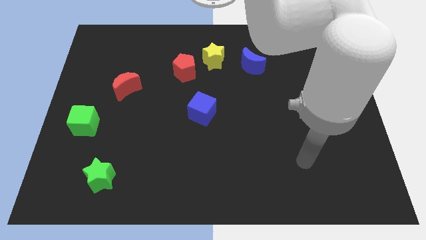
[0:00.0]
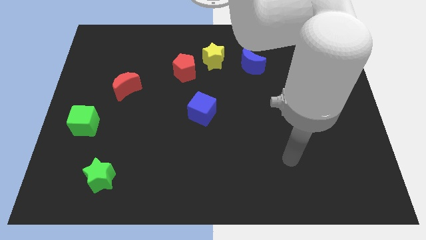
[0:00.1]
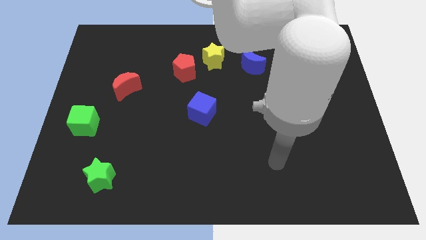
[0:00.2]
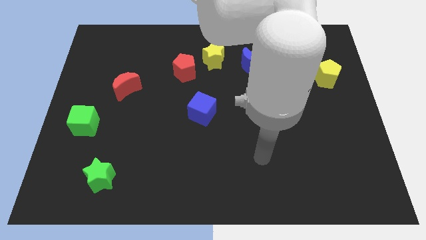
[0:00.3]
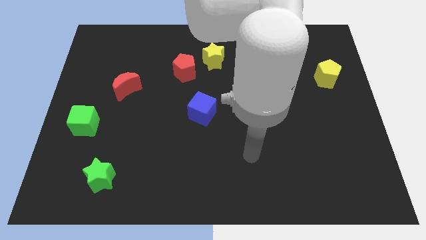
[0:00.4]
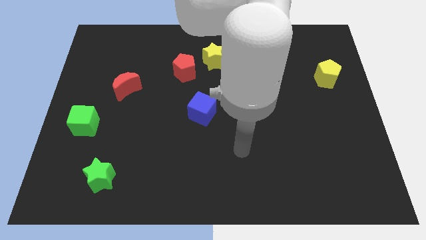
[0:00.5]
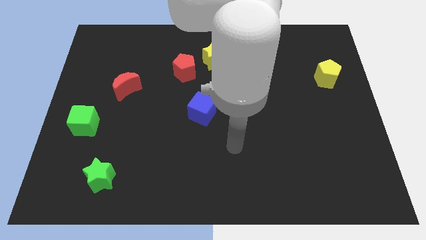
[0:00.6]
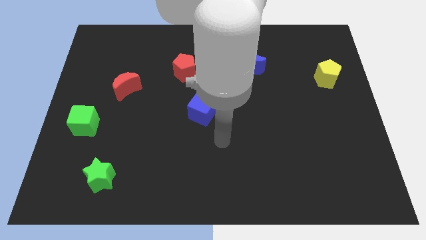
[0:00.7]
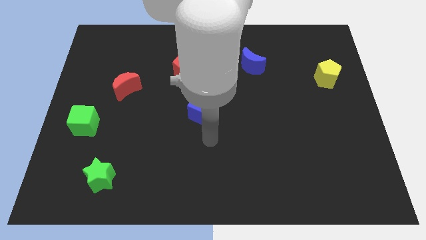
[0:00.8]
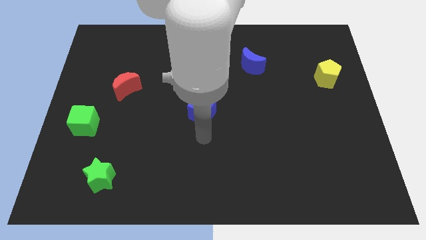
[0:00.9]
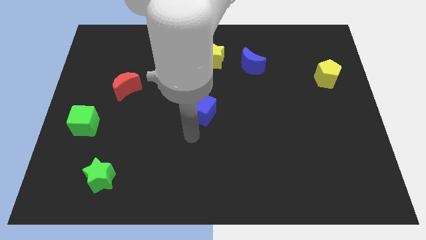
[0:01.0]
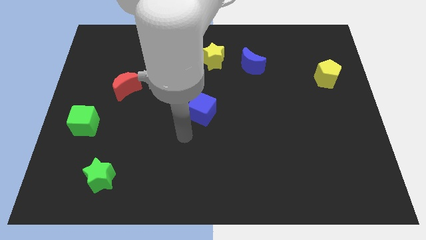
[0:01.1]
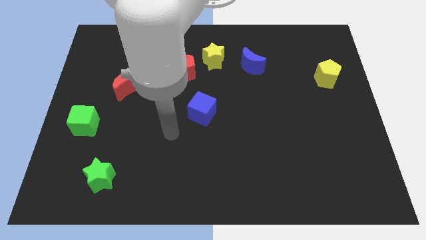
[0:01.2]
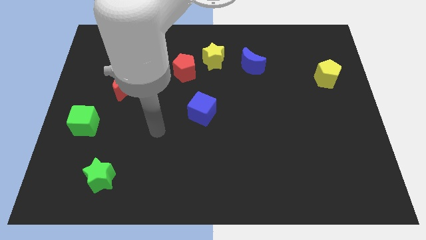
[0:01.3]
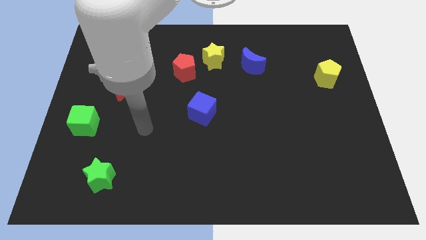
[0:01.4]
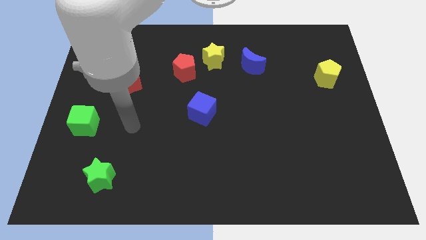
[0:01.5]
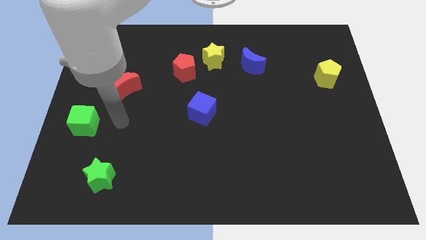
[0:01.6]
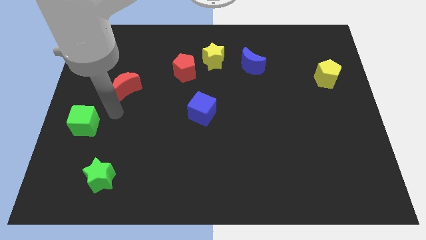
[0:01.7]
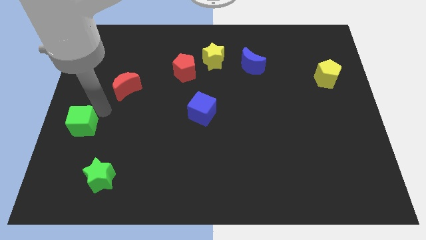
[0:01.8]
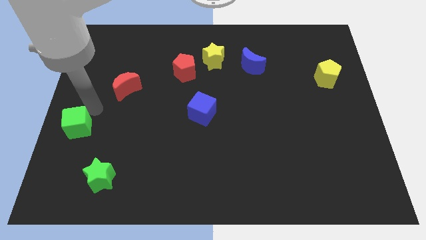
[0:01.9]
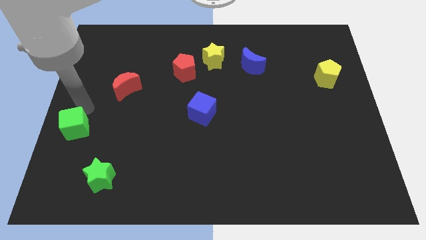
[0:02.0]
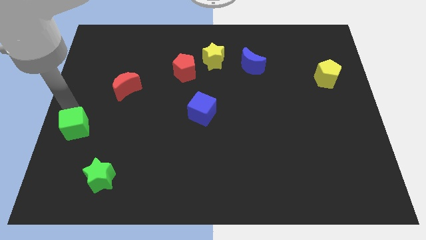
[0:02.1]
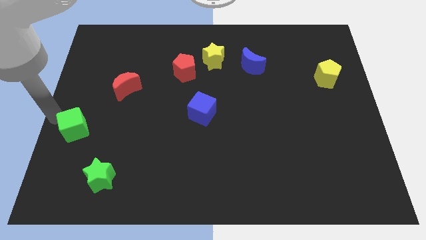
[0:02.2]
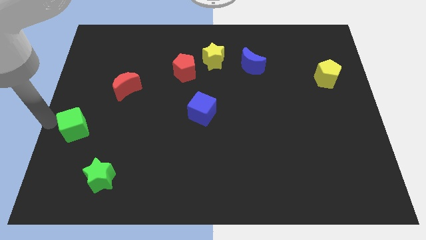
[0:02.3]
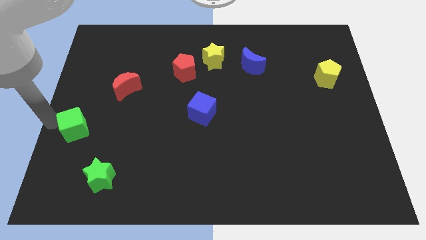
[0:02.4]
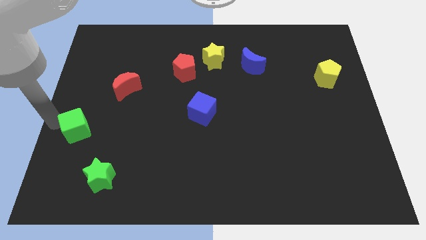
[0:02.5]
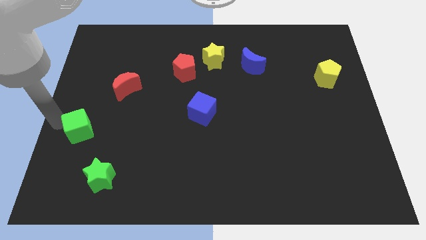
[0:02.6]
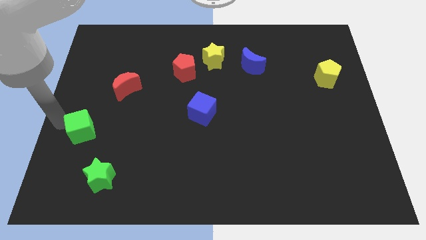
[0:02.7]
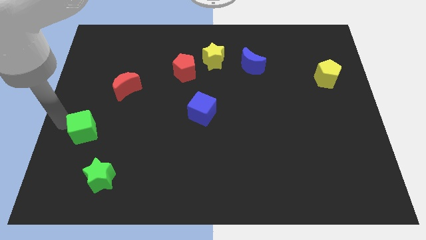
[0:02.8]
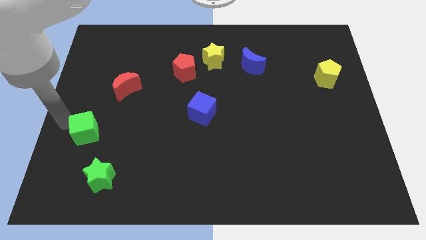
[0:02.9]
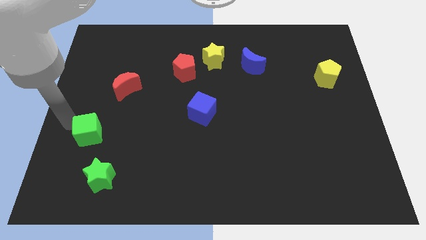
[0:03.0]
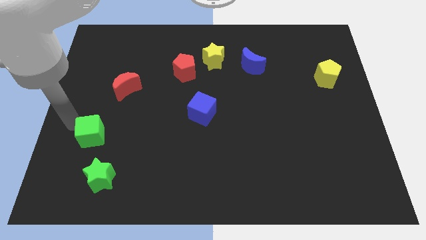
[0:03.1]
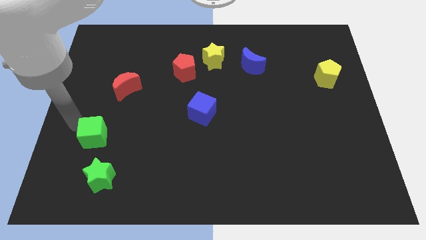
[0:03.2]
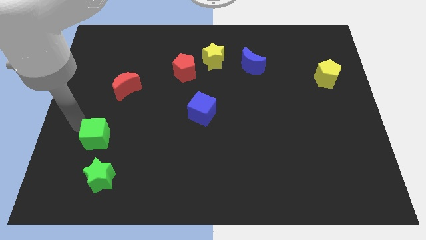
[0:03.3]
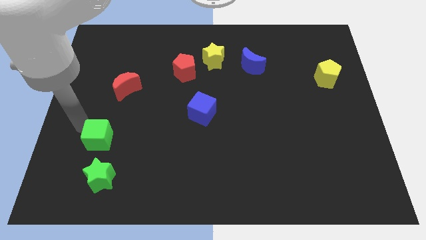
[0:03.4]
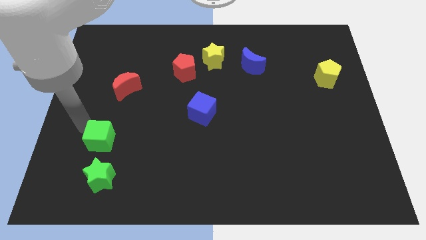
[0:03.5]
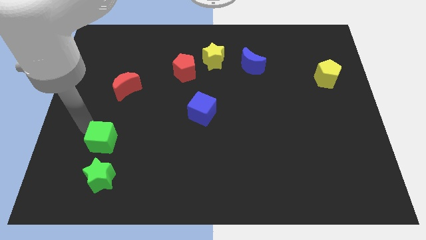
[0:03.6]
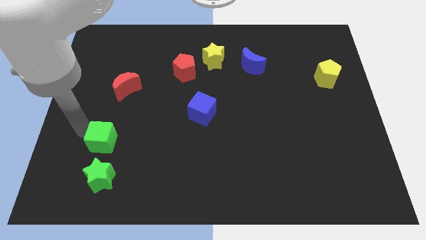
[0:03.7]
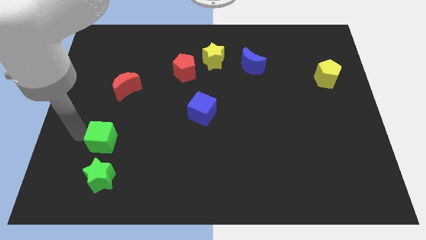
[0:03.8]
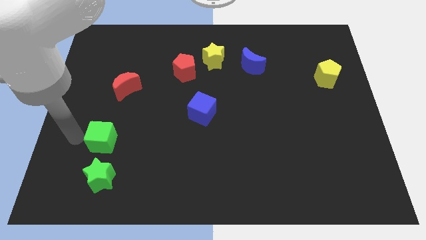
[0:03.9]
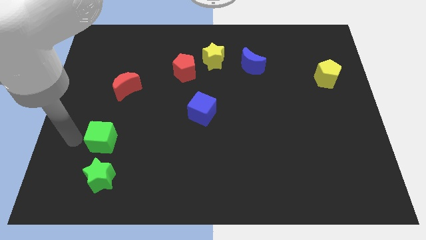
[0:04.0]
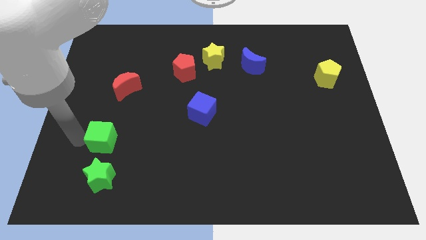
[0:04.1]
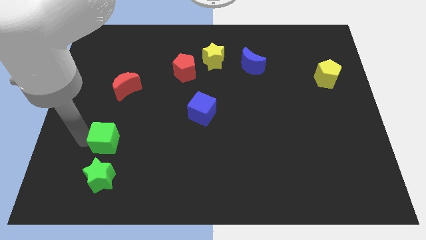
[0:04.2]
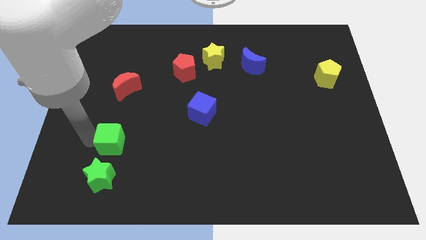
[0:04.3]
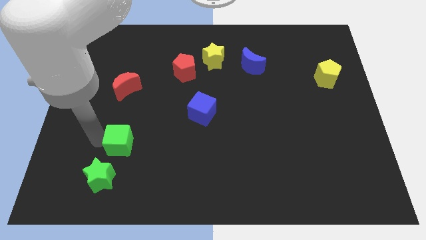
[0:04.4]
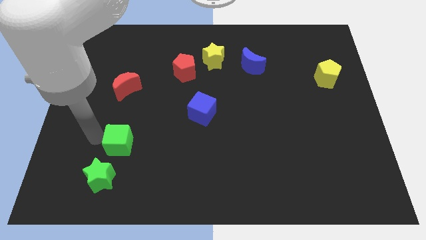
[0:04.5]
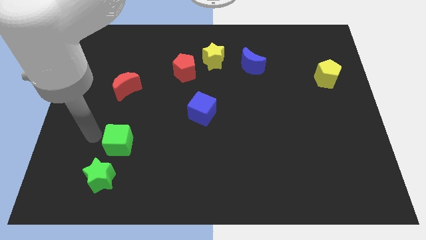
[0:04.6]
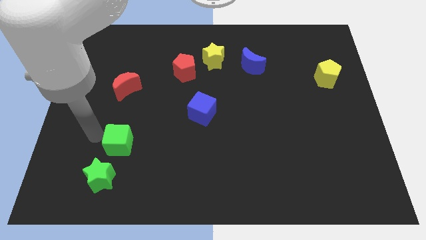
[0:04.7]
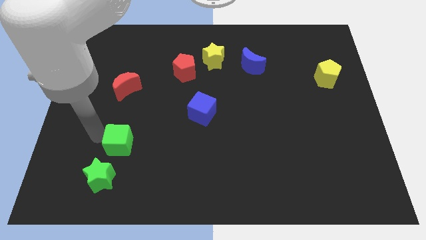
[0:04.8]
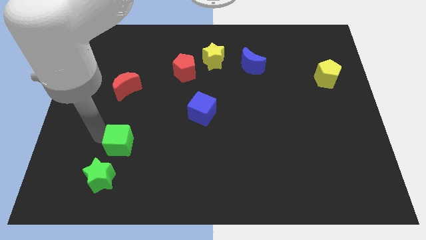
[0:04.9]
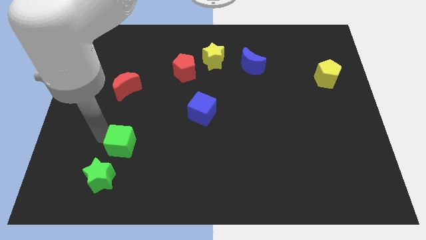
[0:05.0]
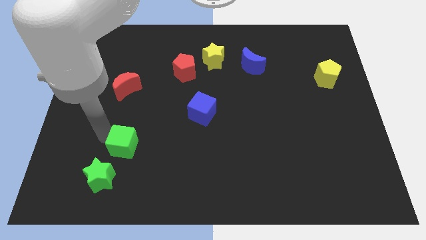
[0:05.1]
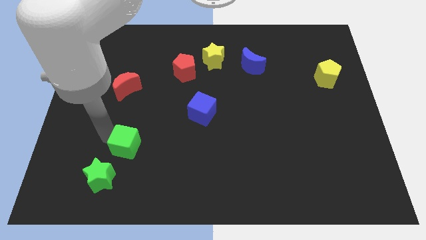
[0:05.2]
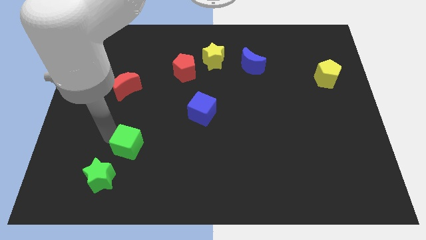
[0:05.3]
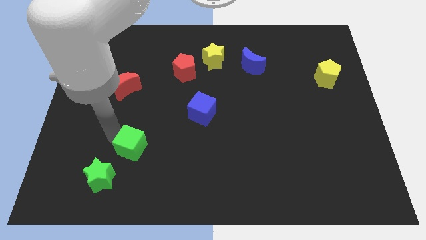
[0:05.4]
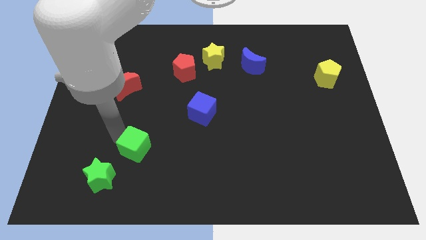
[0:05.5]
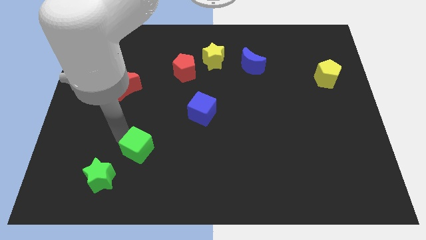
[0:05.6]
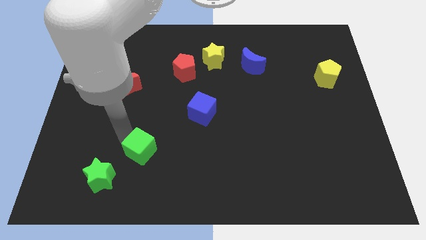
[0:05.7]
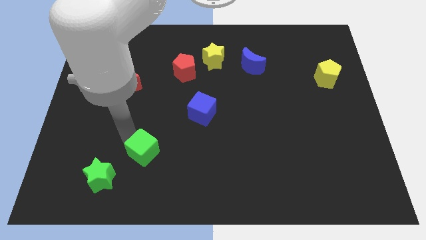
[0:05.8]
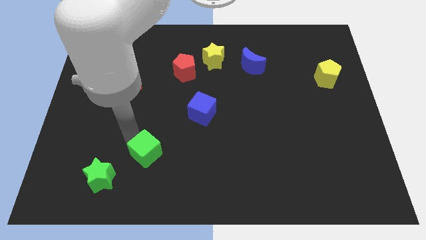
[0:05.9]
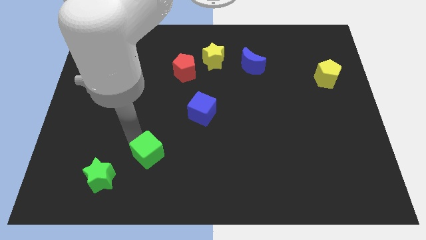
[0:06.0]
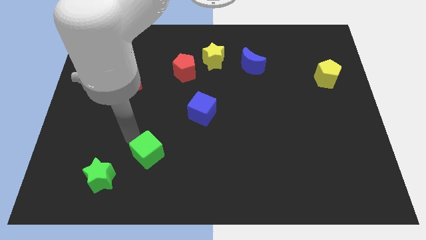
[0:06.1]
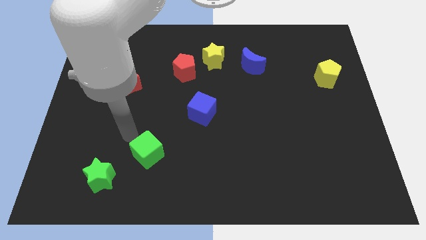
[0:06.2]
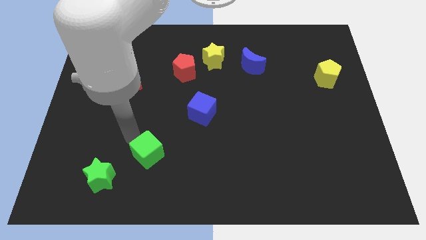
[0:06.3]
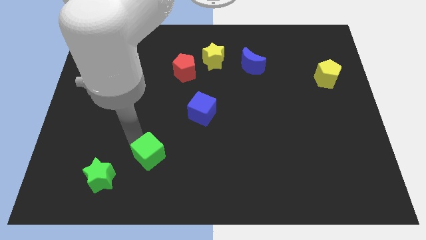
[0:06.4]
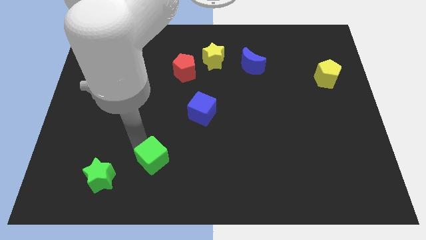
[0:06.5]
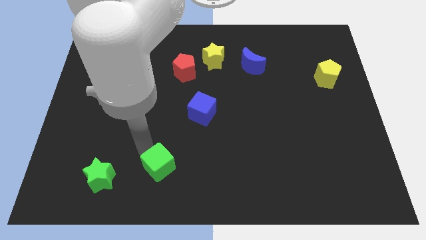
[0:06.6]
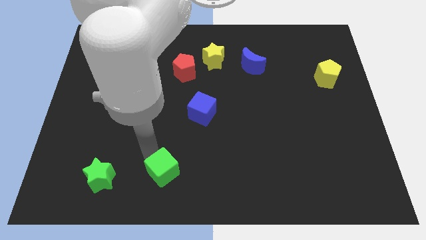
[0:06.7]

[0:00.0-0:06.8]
put the green cube to the bottom

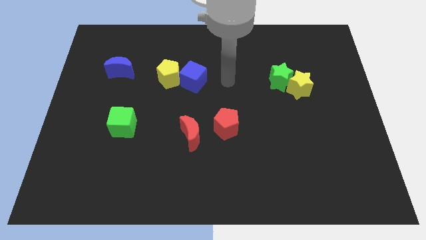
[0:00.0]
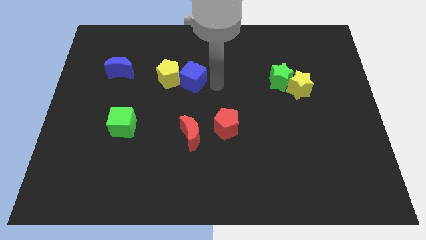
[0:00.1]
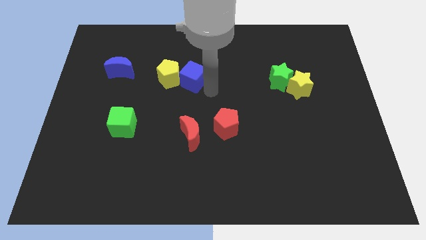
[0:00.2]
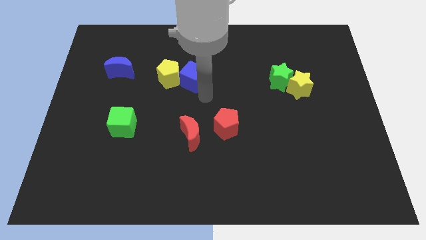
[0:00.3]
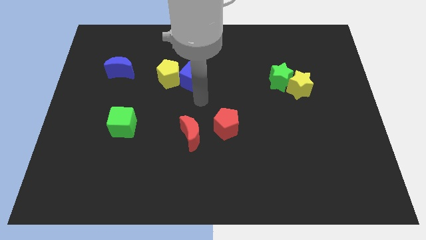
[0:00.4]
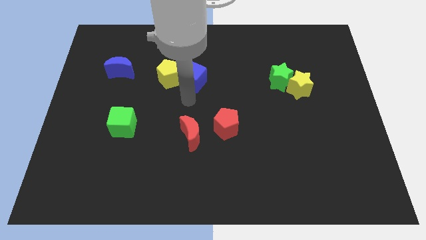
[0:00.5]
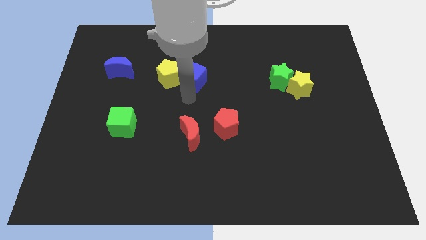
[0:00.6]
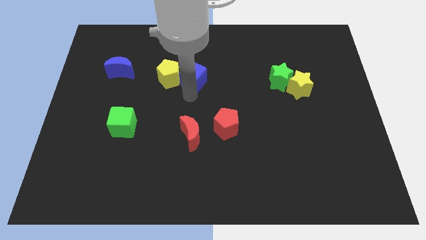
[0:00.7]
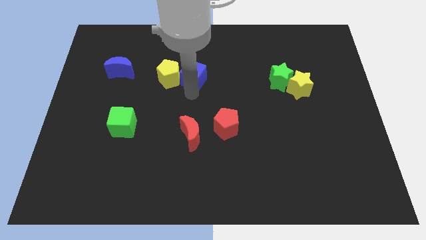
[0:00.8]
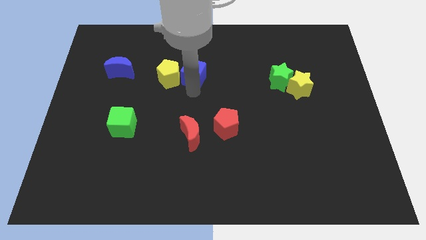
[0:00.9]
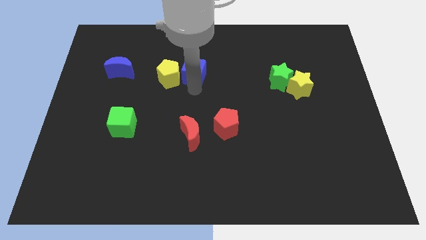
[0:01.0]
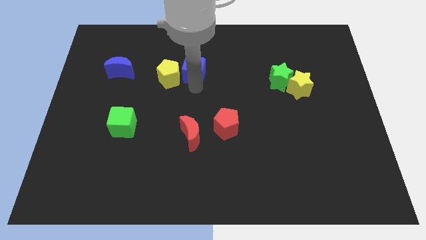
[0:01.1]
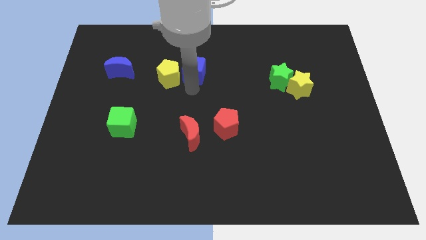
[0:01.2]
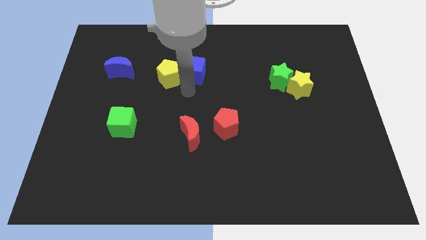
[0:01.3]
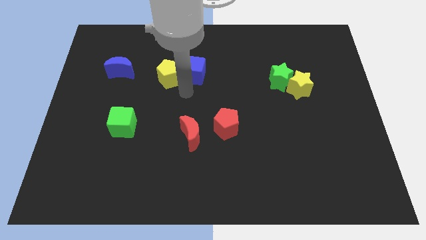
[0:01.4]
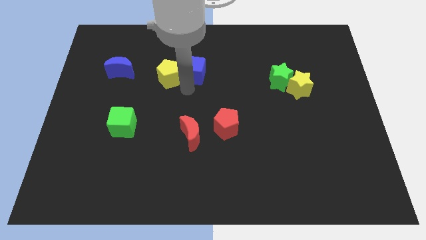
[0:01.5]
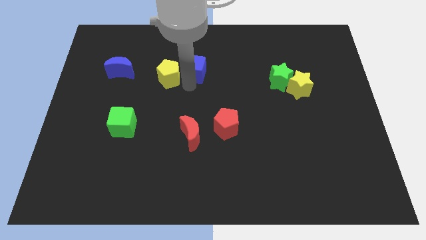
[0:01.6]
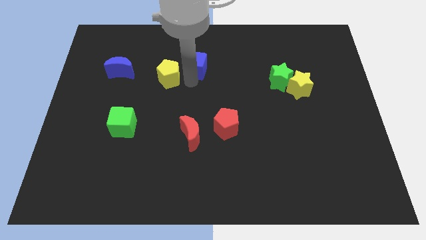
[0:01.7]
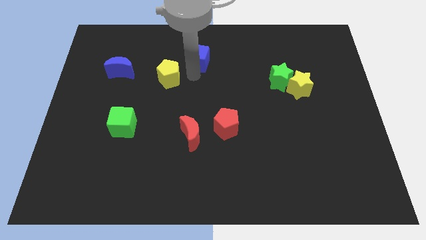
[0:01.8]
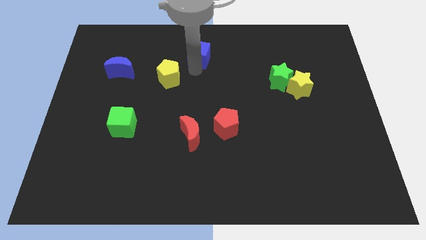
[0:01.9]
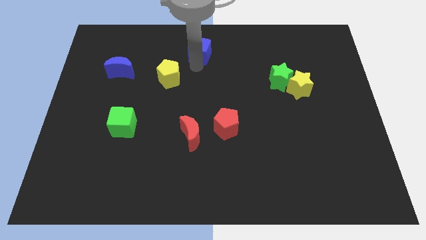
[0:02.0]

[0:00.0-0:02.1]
put the blue cube to the top
